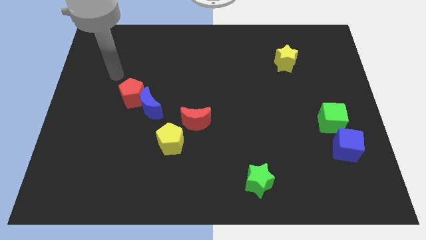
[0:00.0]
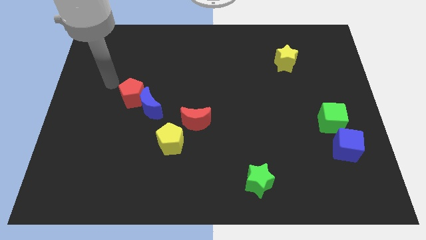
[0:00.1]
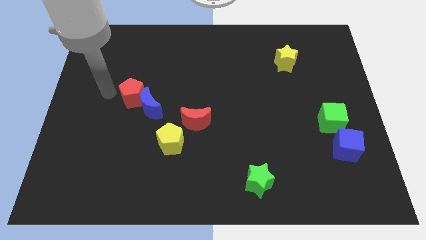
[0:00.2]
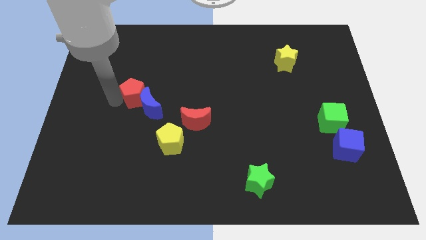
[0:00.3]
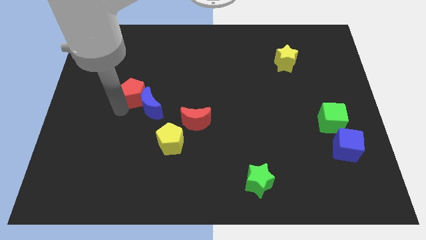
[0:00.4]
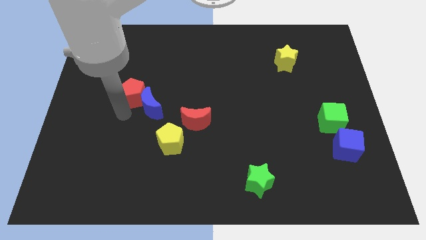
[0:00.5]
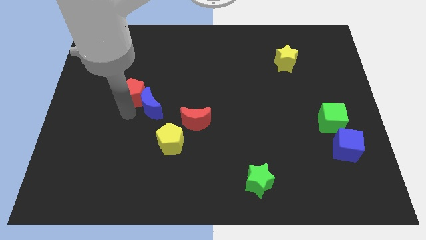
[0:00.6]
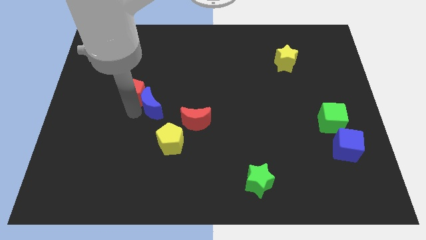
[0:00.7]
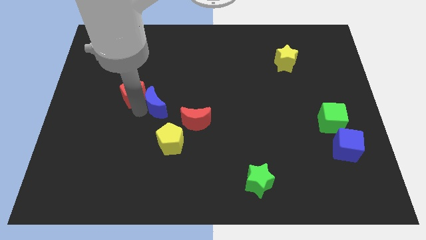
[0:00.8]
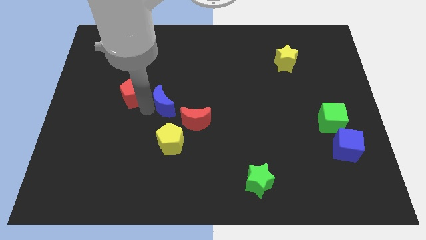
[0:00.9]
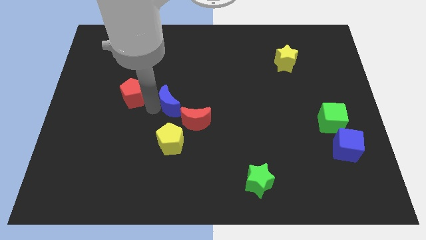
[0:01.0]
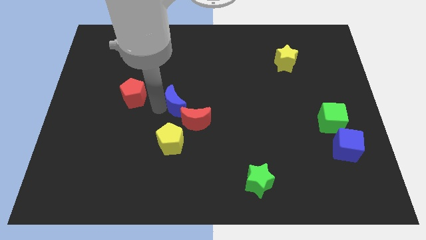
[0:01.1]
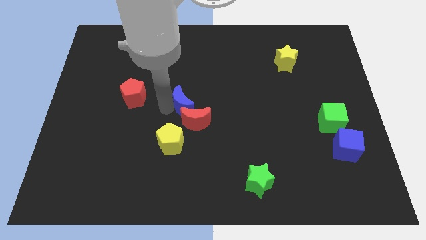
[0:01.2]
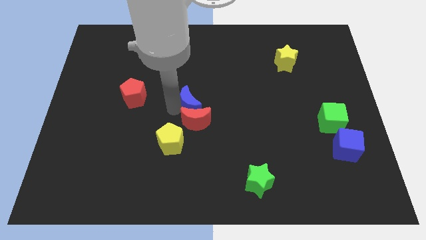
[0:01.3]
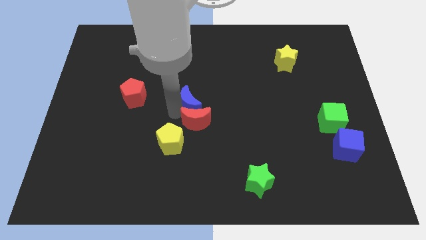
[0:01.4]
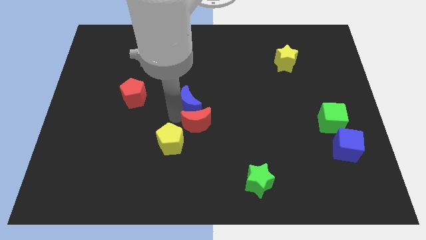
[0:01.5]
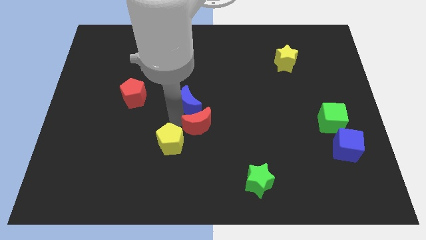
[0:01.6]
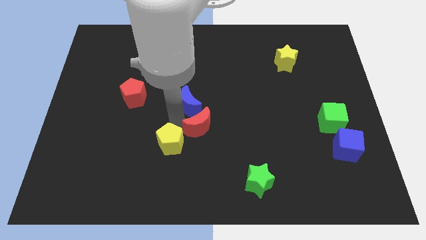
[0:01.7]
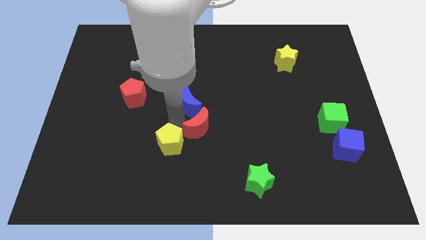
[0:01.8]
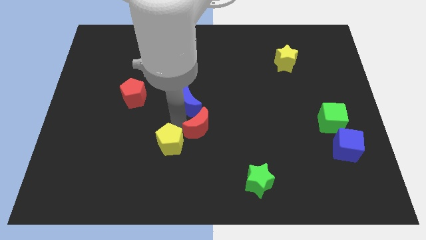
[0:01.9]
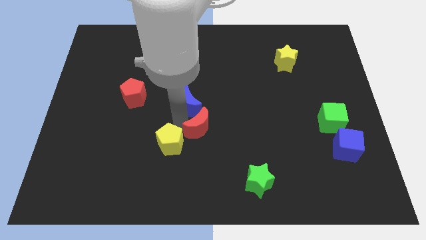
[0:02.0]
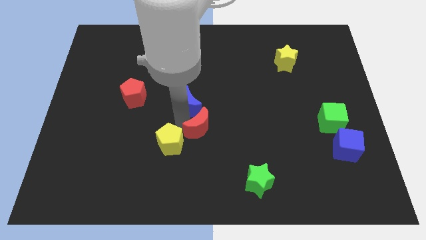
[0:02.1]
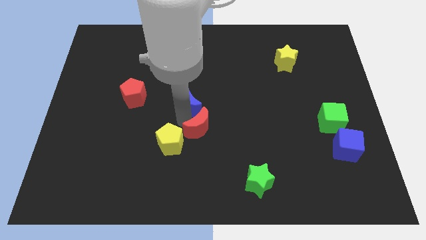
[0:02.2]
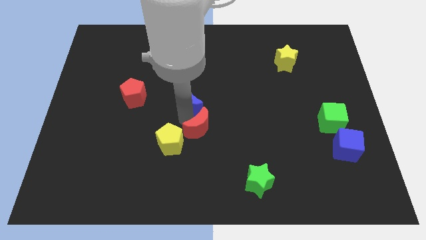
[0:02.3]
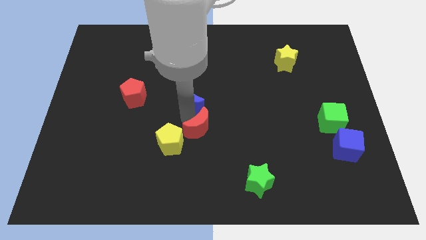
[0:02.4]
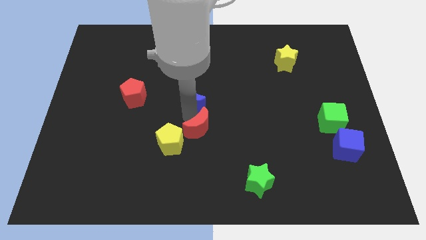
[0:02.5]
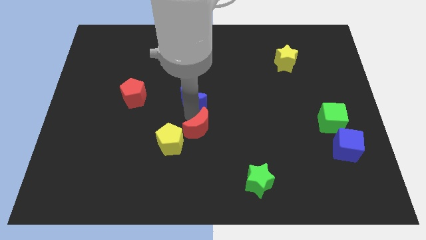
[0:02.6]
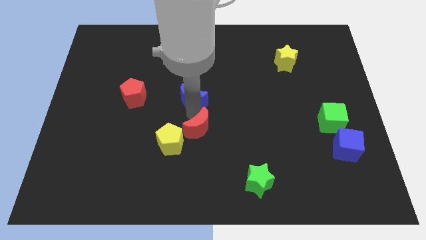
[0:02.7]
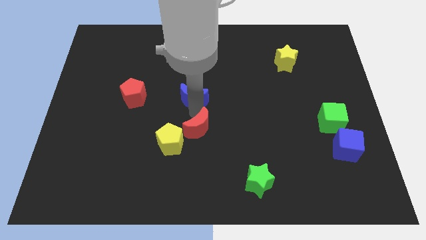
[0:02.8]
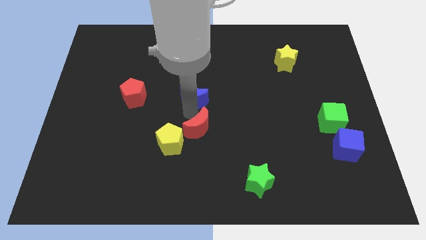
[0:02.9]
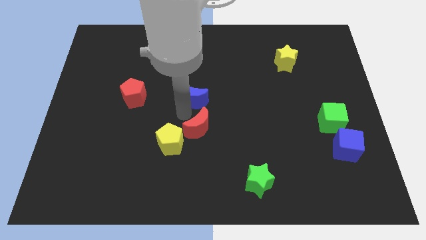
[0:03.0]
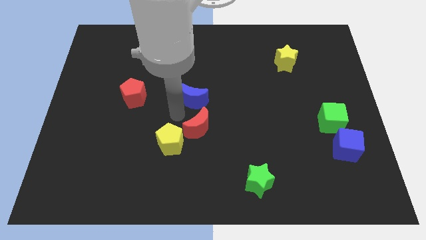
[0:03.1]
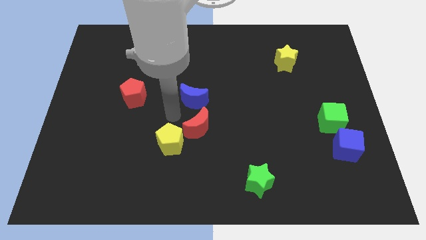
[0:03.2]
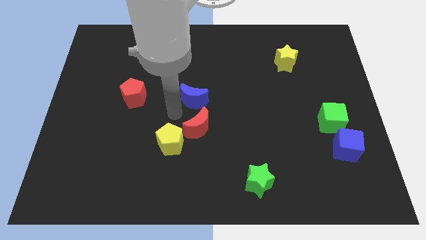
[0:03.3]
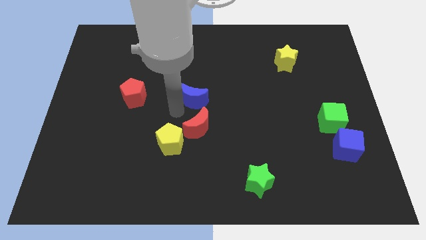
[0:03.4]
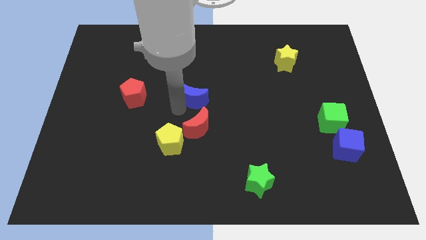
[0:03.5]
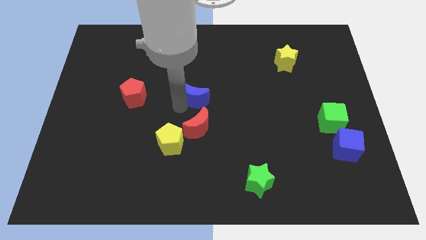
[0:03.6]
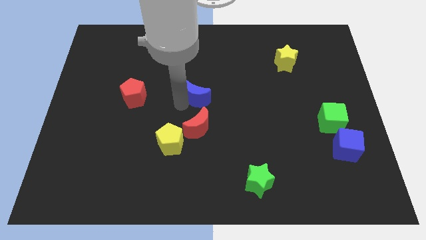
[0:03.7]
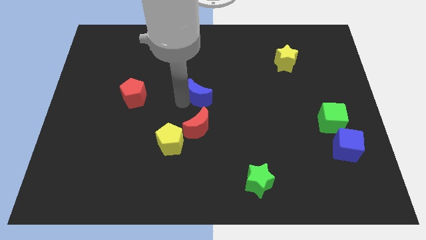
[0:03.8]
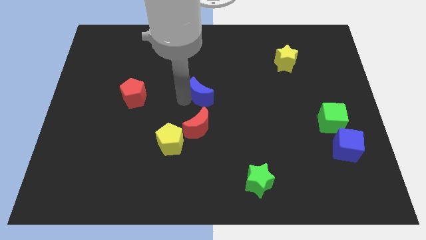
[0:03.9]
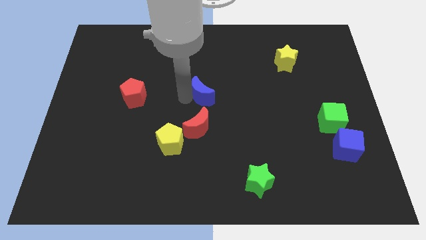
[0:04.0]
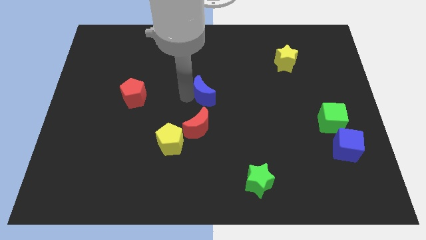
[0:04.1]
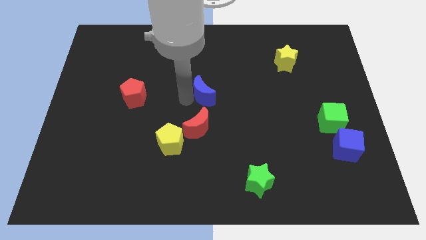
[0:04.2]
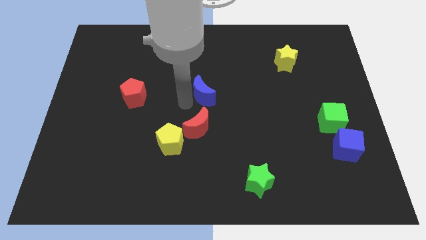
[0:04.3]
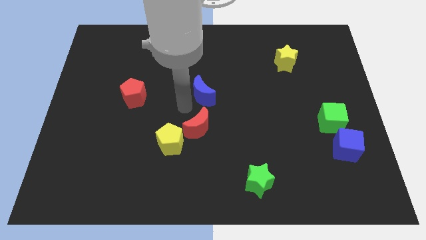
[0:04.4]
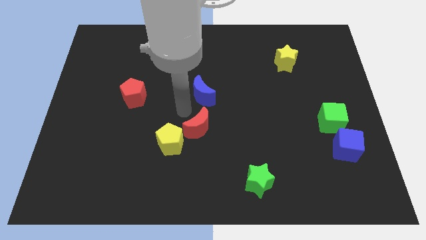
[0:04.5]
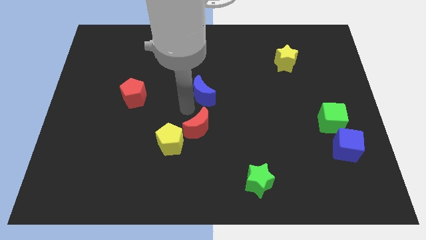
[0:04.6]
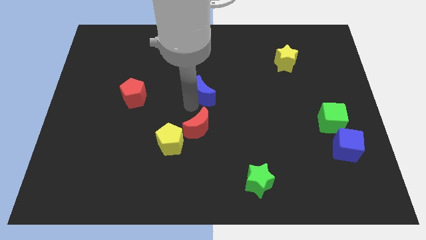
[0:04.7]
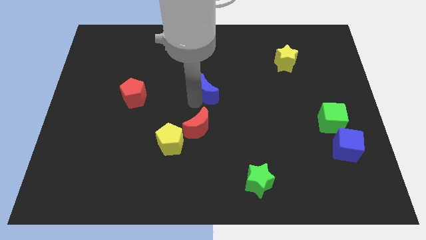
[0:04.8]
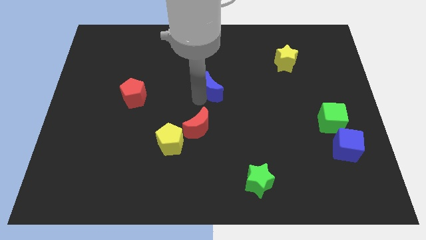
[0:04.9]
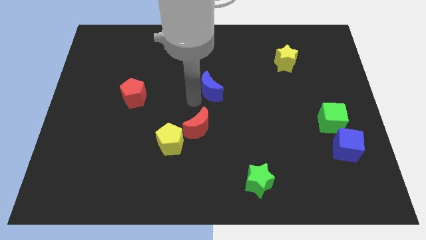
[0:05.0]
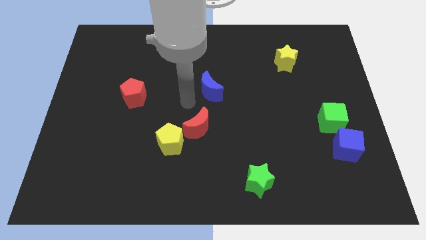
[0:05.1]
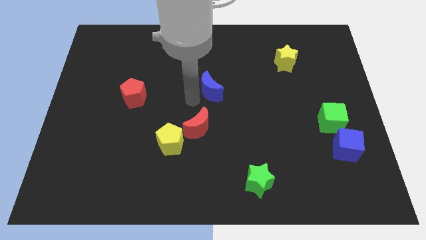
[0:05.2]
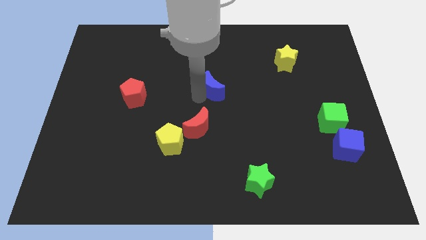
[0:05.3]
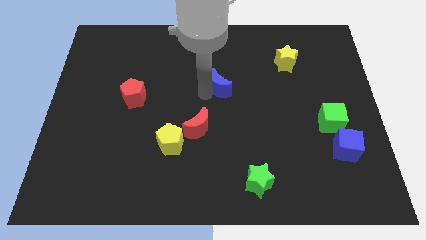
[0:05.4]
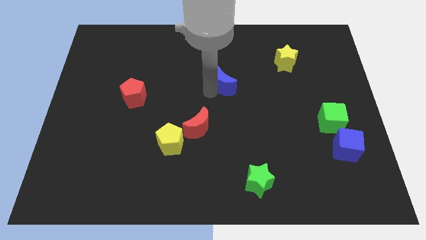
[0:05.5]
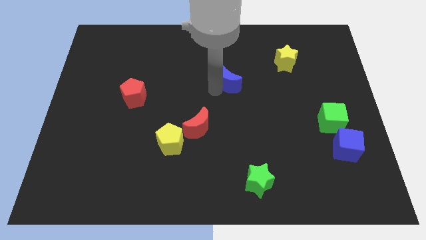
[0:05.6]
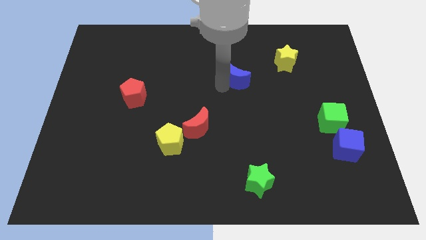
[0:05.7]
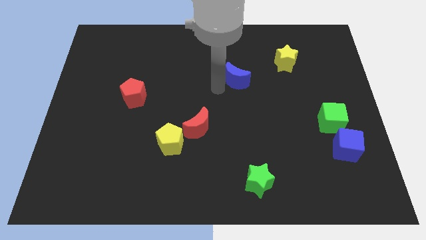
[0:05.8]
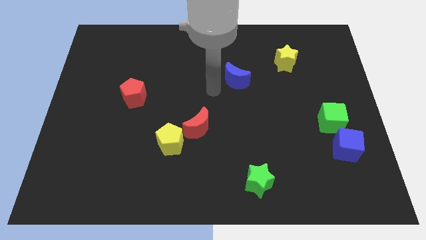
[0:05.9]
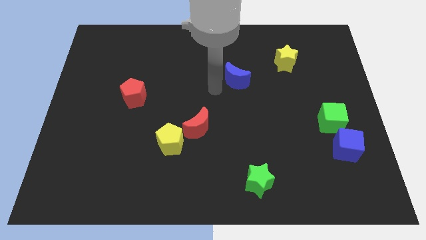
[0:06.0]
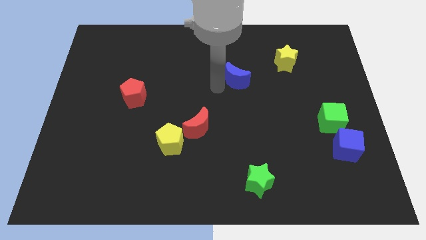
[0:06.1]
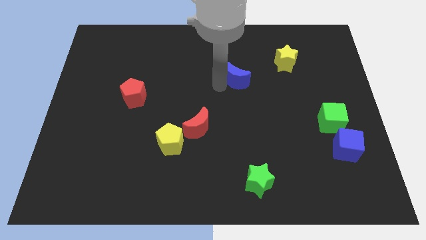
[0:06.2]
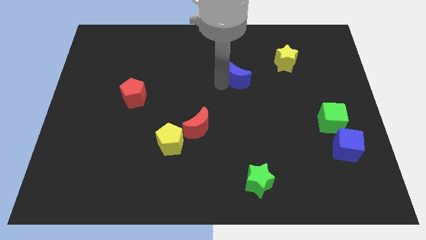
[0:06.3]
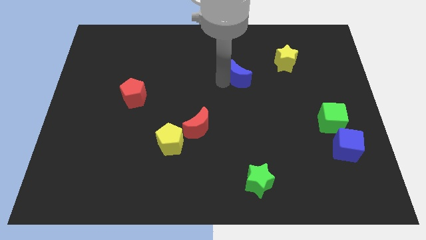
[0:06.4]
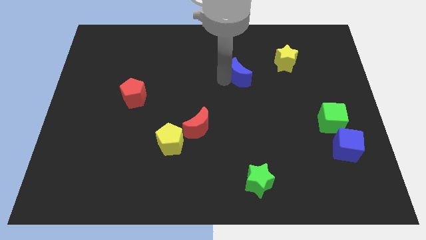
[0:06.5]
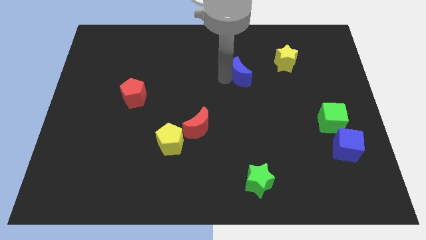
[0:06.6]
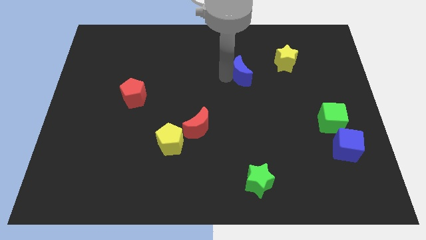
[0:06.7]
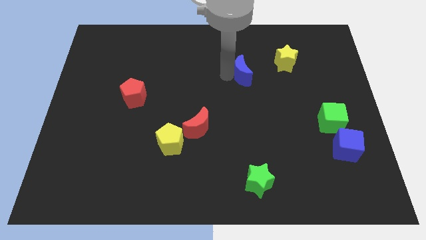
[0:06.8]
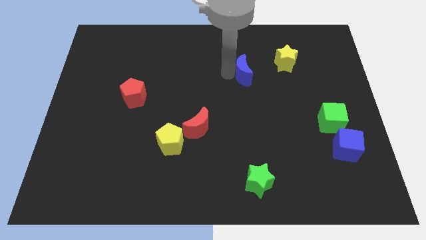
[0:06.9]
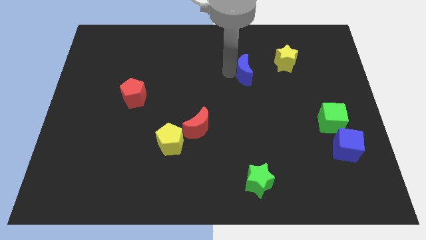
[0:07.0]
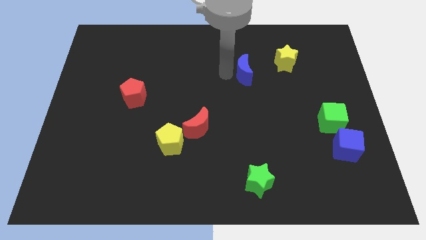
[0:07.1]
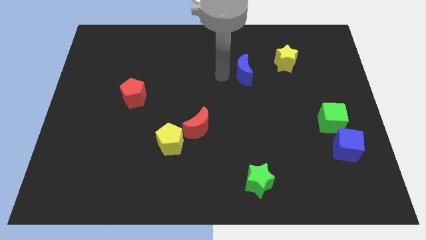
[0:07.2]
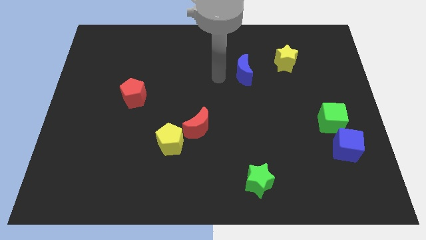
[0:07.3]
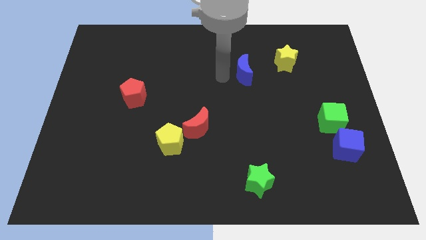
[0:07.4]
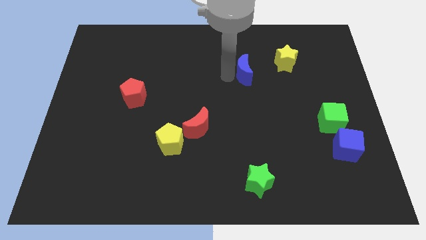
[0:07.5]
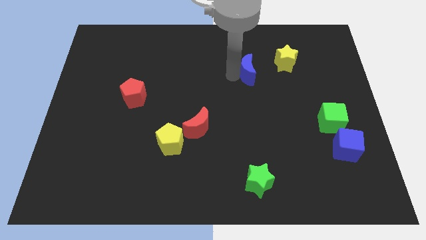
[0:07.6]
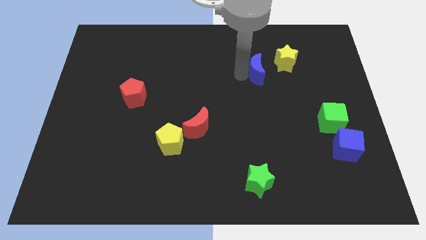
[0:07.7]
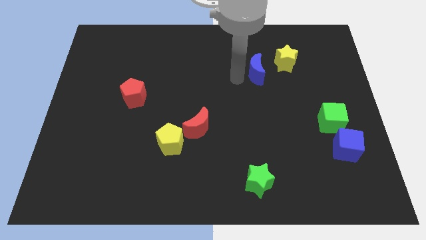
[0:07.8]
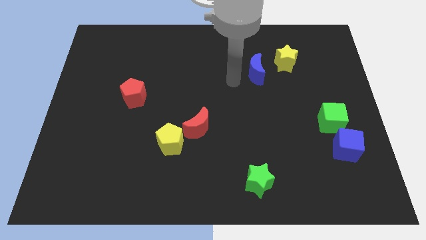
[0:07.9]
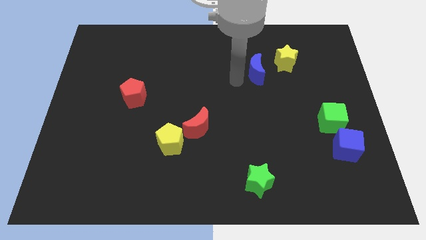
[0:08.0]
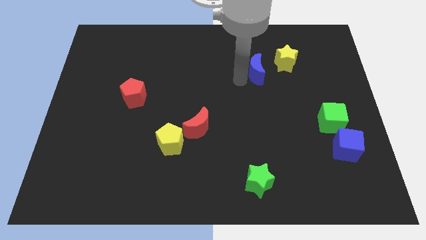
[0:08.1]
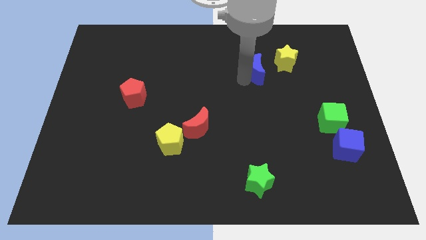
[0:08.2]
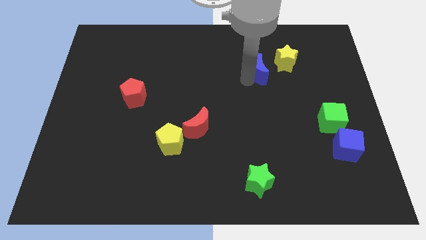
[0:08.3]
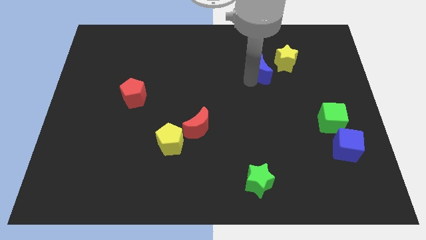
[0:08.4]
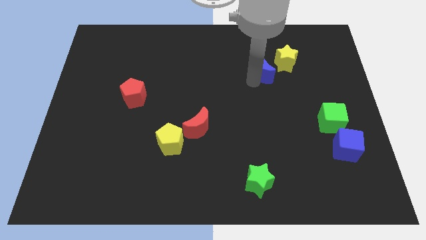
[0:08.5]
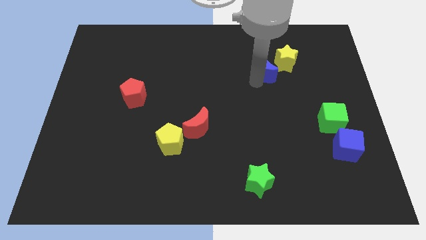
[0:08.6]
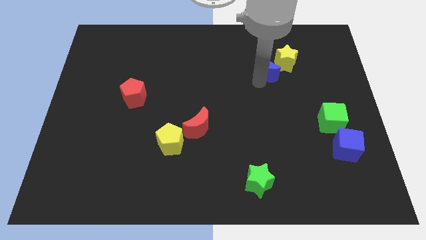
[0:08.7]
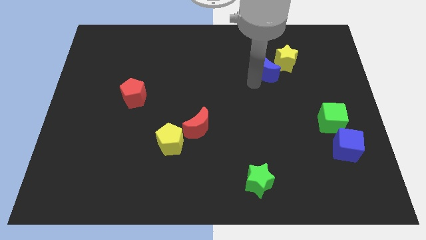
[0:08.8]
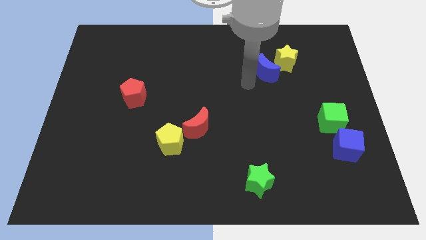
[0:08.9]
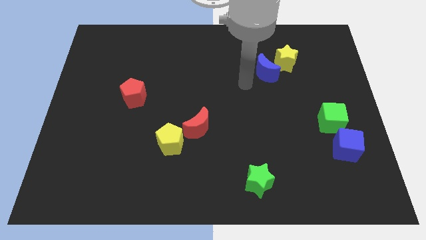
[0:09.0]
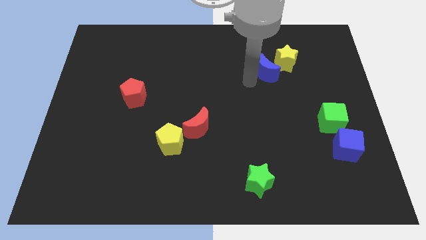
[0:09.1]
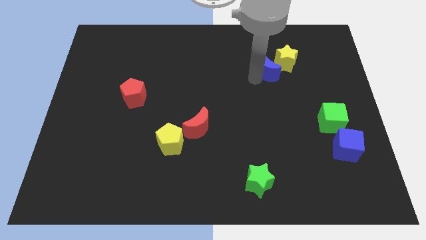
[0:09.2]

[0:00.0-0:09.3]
push the blue moon towards the yellow star
